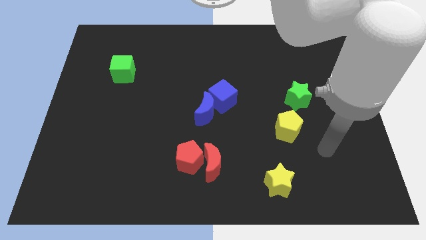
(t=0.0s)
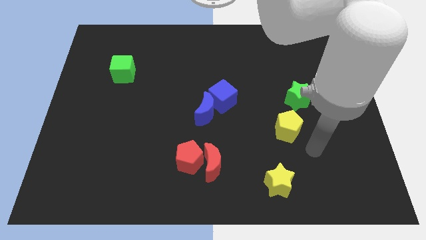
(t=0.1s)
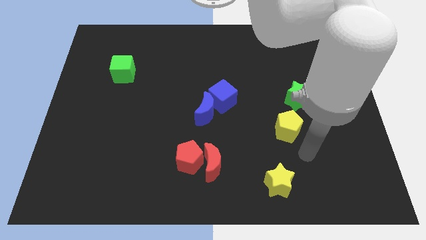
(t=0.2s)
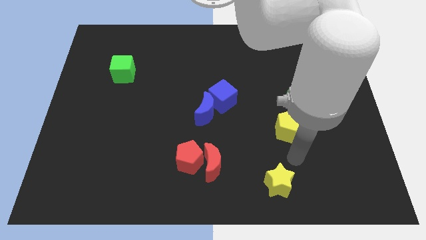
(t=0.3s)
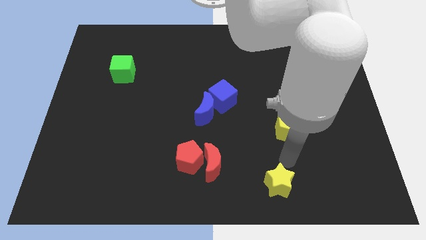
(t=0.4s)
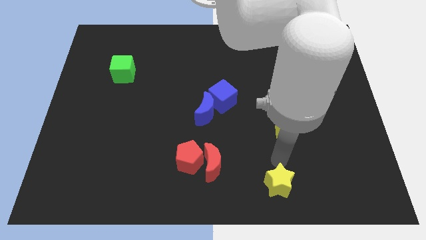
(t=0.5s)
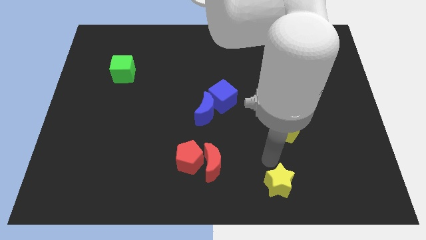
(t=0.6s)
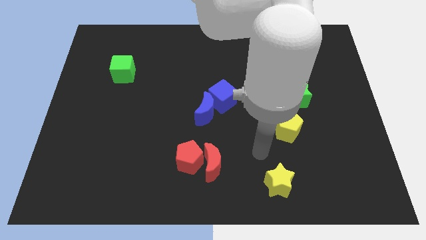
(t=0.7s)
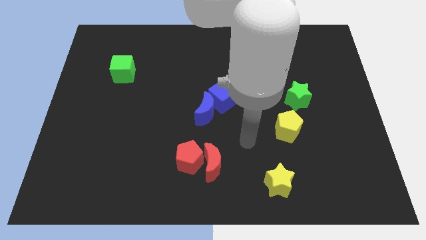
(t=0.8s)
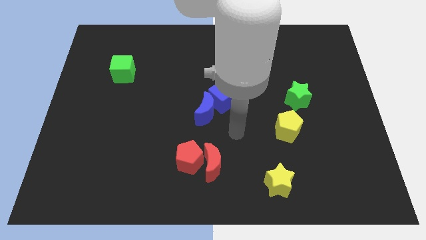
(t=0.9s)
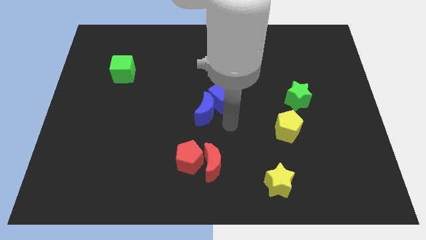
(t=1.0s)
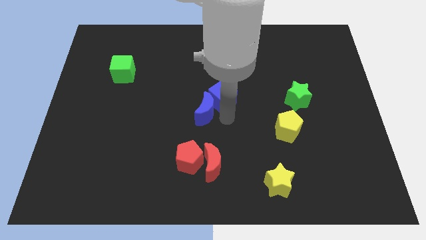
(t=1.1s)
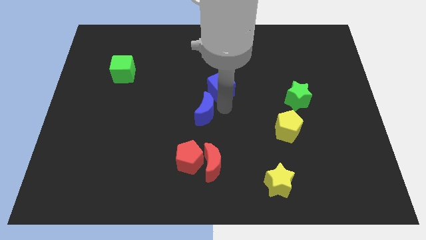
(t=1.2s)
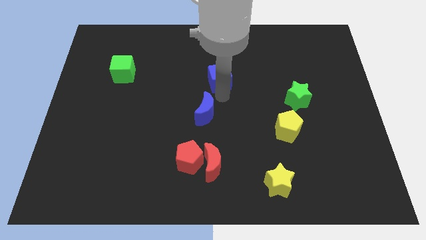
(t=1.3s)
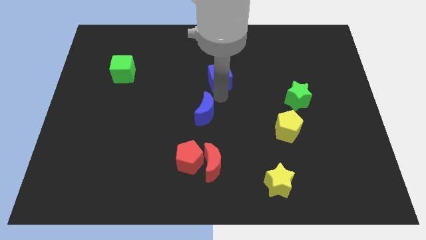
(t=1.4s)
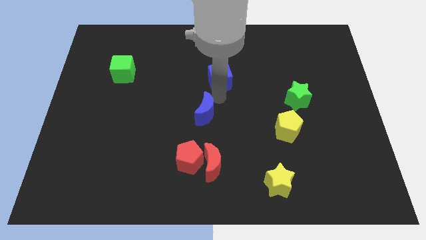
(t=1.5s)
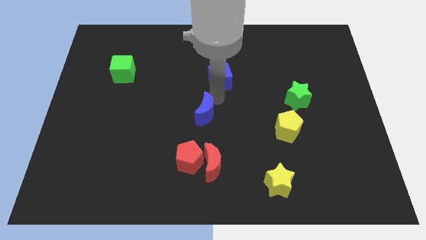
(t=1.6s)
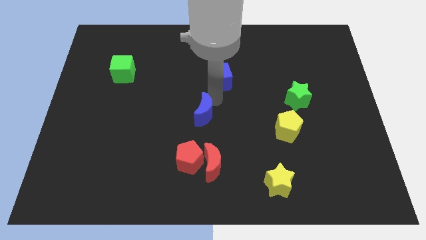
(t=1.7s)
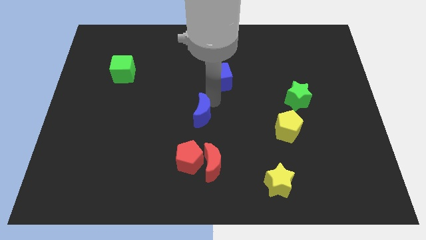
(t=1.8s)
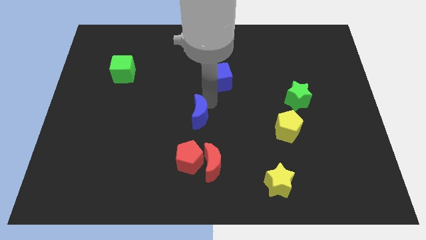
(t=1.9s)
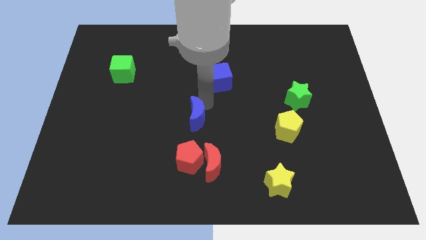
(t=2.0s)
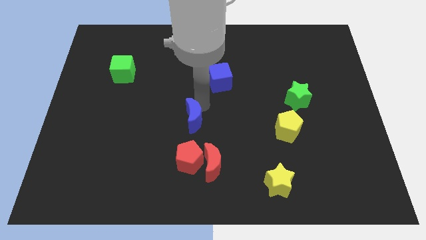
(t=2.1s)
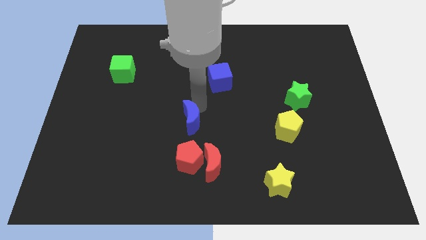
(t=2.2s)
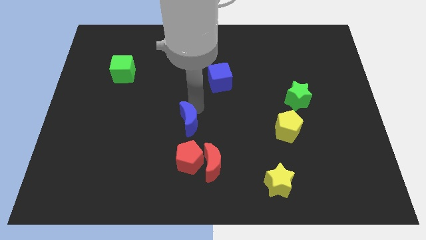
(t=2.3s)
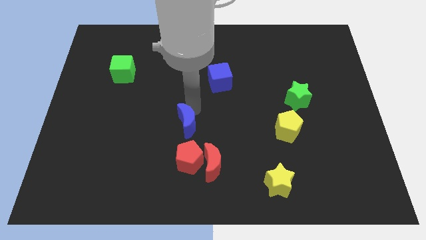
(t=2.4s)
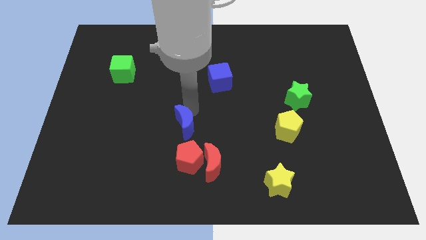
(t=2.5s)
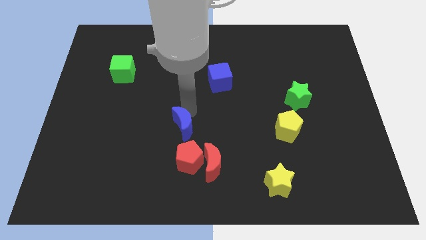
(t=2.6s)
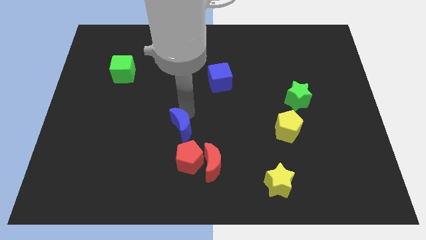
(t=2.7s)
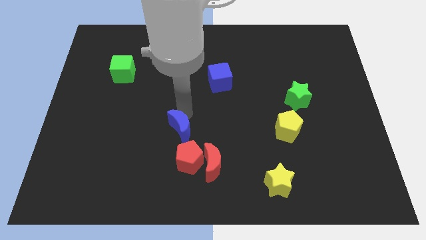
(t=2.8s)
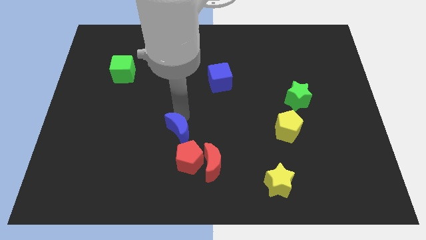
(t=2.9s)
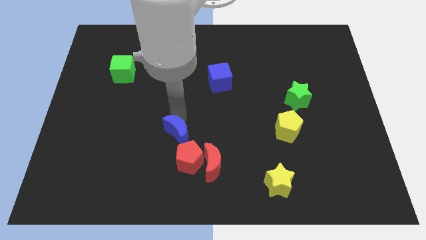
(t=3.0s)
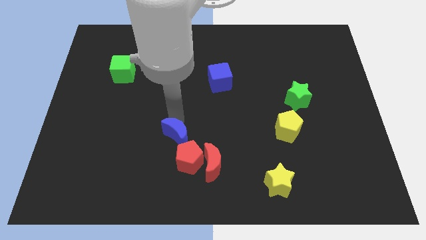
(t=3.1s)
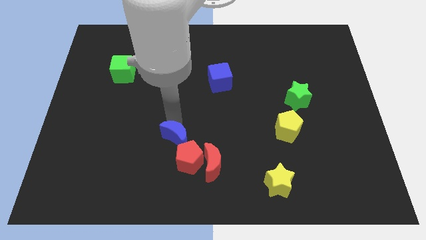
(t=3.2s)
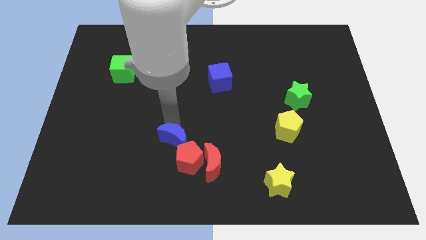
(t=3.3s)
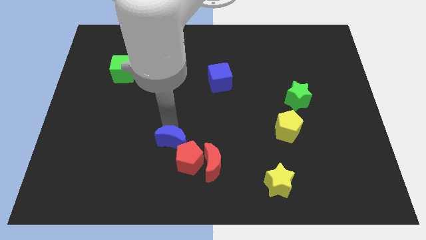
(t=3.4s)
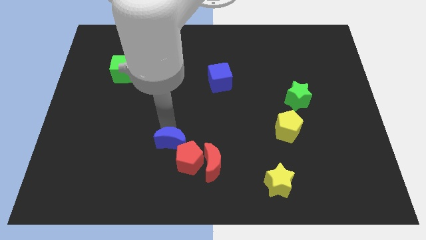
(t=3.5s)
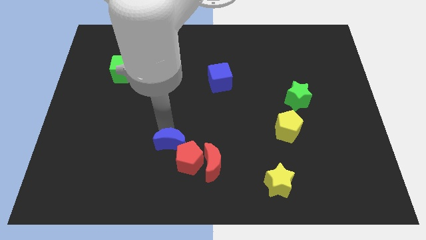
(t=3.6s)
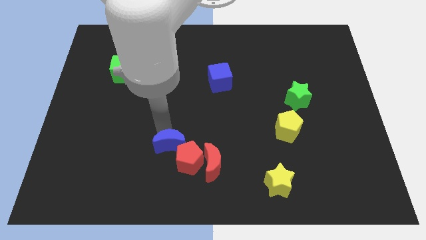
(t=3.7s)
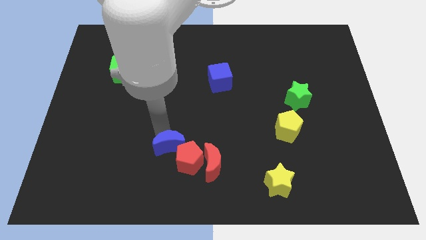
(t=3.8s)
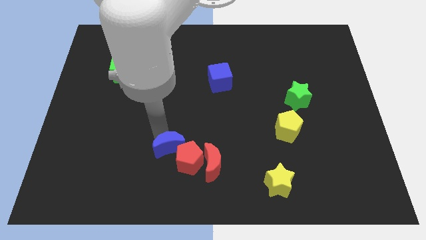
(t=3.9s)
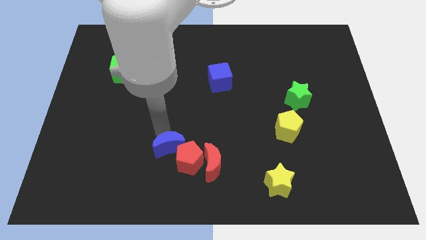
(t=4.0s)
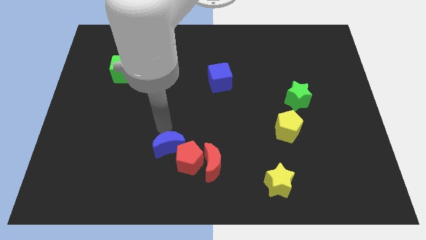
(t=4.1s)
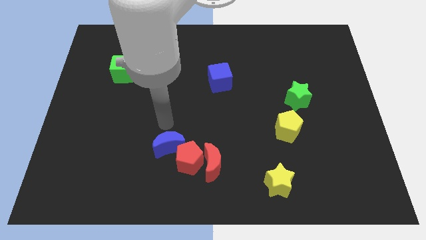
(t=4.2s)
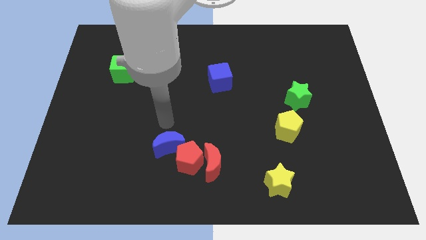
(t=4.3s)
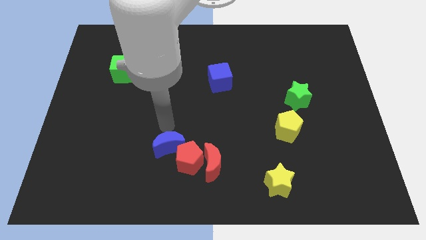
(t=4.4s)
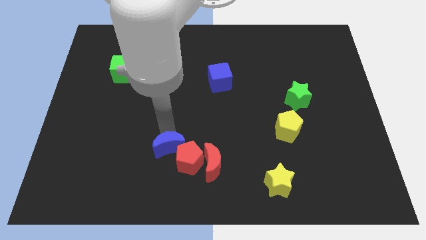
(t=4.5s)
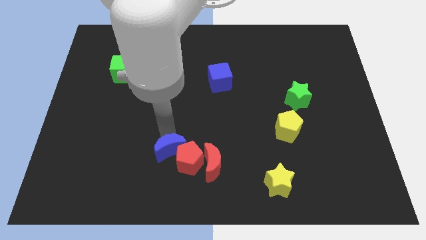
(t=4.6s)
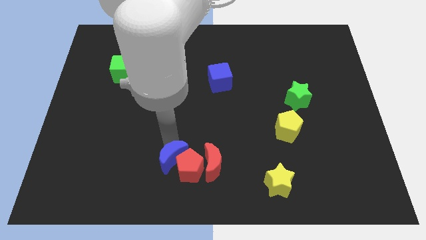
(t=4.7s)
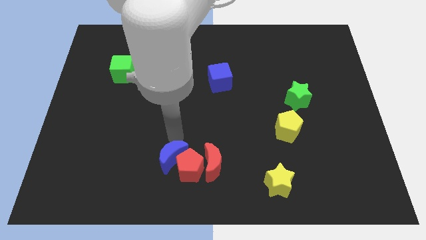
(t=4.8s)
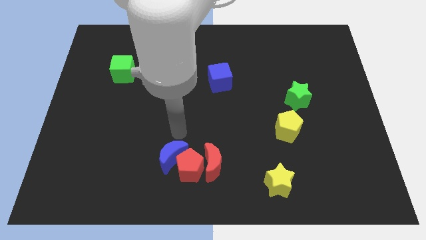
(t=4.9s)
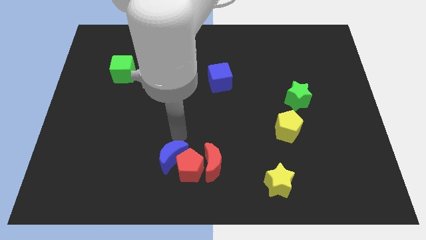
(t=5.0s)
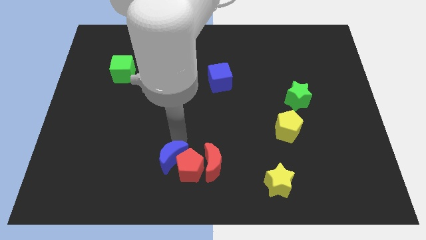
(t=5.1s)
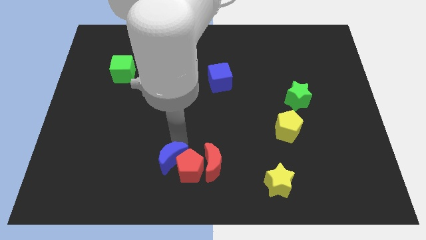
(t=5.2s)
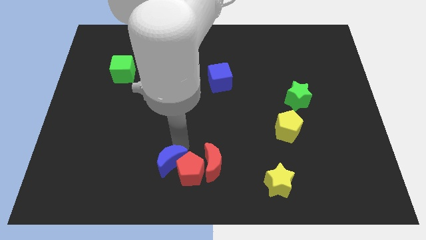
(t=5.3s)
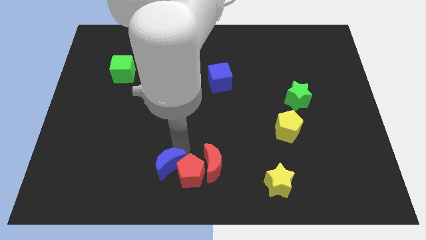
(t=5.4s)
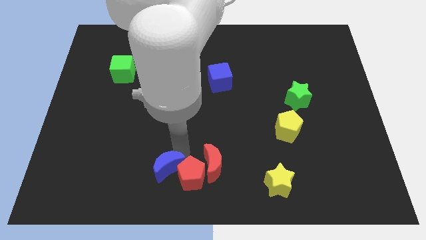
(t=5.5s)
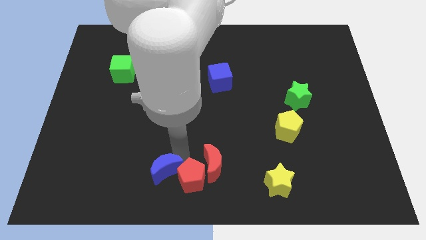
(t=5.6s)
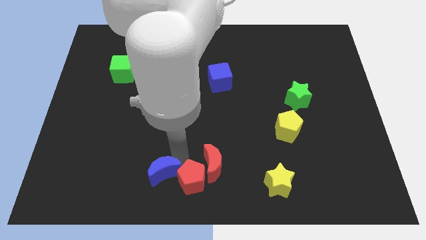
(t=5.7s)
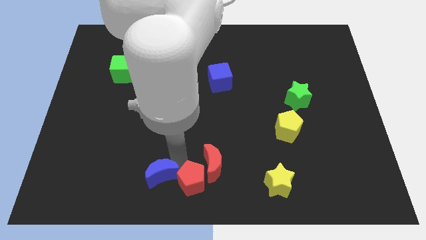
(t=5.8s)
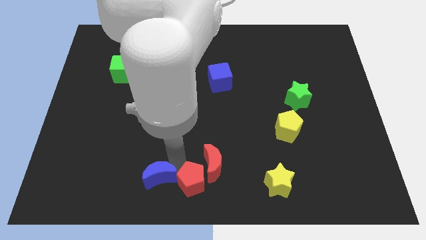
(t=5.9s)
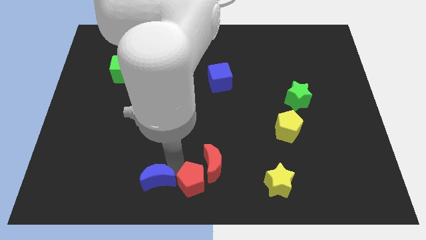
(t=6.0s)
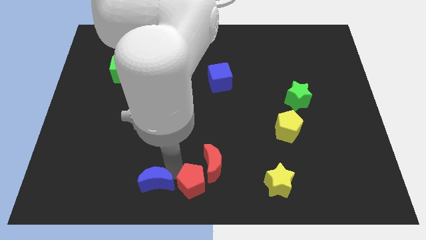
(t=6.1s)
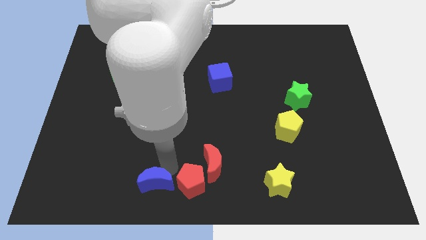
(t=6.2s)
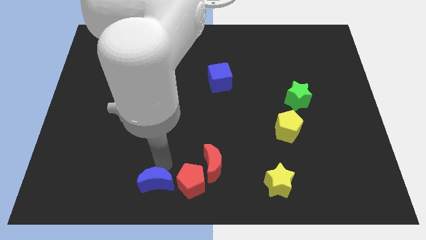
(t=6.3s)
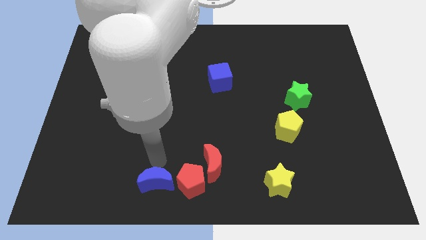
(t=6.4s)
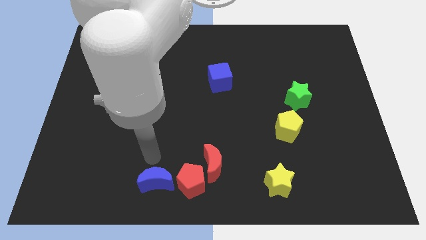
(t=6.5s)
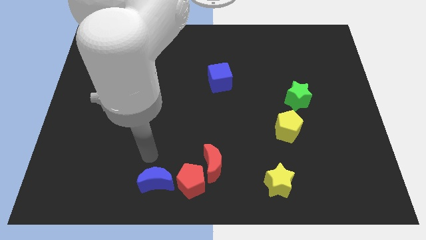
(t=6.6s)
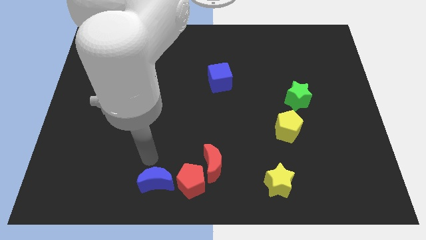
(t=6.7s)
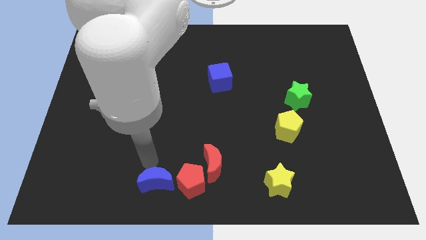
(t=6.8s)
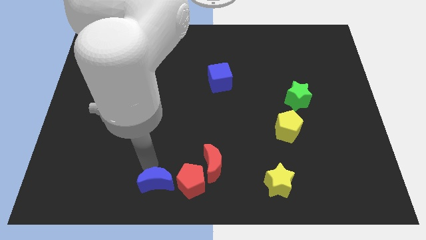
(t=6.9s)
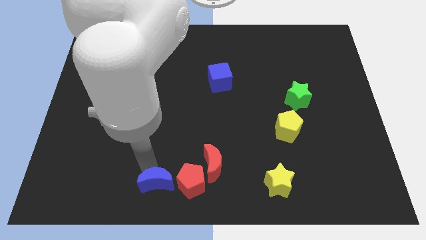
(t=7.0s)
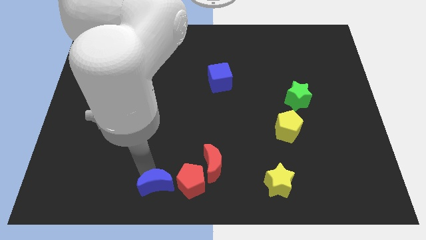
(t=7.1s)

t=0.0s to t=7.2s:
move the blue moon diagonally down and to the left of the red pentagon

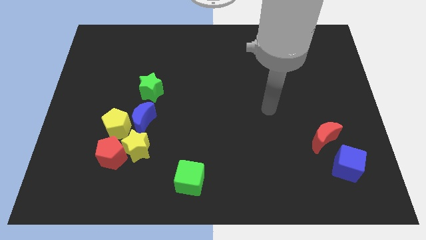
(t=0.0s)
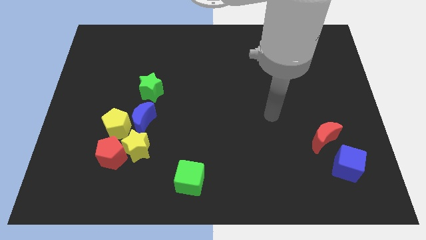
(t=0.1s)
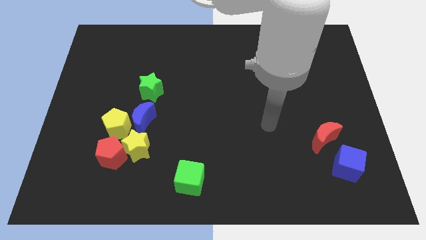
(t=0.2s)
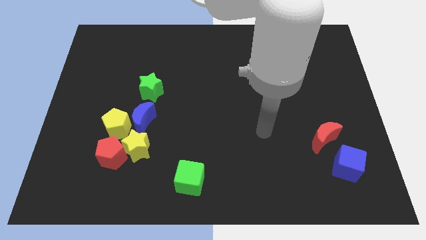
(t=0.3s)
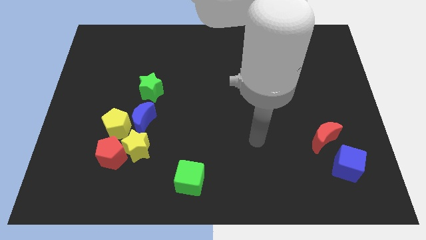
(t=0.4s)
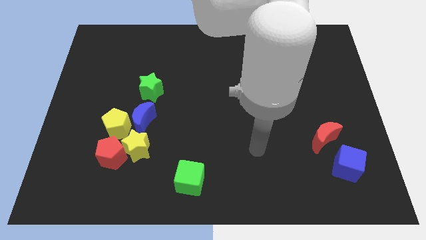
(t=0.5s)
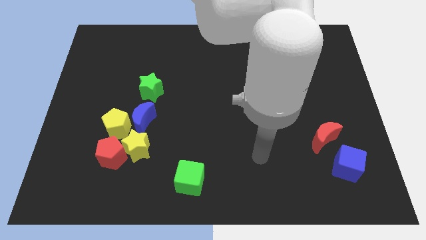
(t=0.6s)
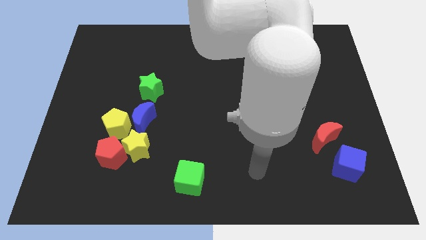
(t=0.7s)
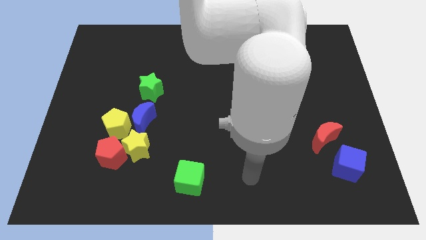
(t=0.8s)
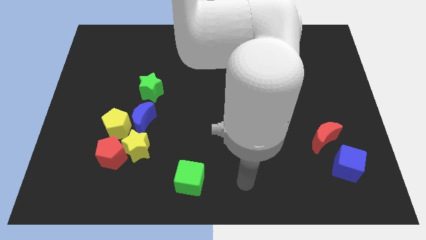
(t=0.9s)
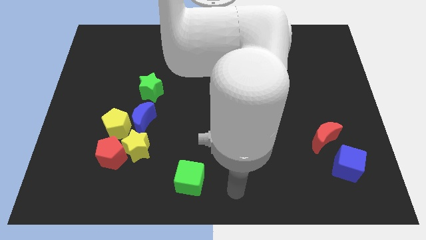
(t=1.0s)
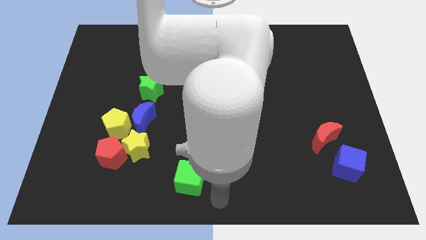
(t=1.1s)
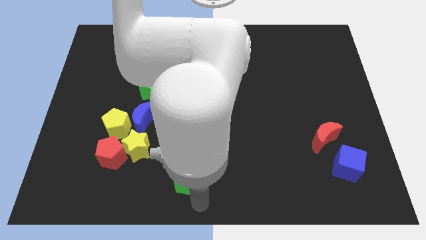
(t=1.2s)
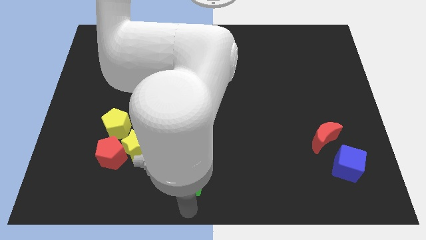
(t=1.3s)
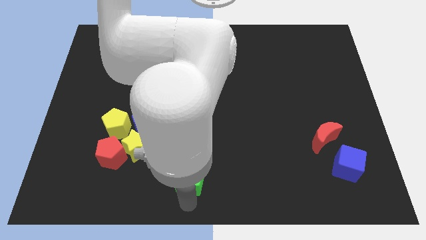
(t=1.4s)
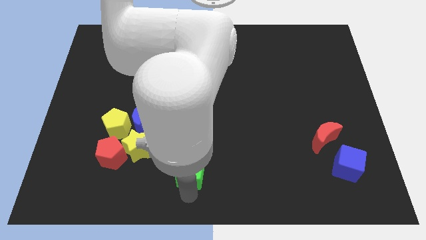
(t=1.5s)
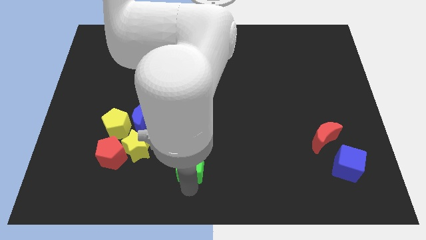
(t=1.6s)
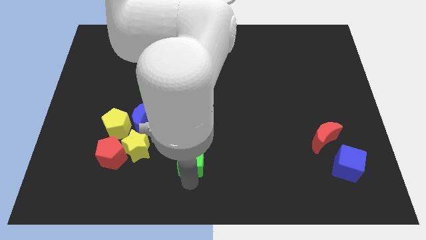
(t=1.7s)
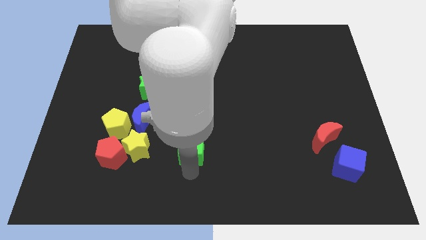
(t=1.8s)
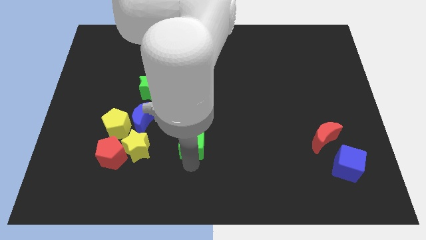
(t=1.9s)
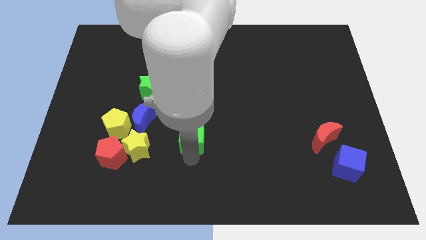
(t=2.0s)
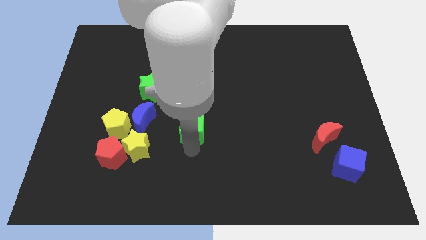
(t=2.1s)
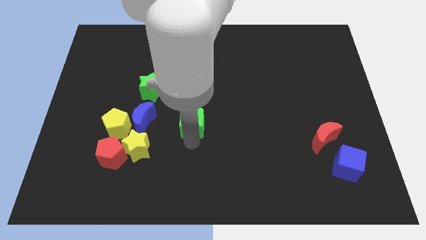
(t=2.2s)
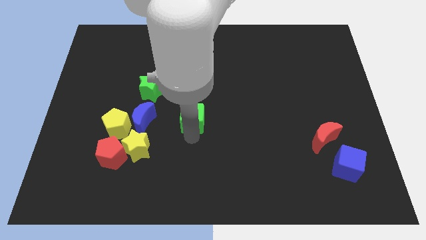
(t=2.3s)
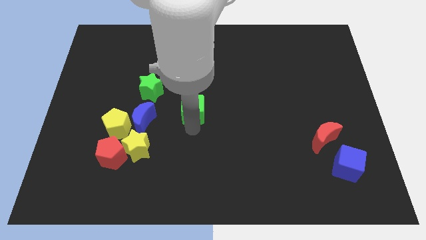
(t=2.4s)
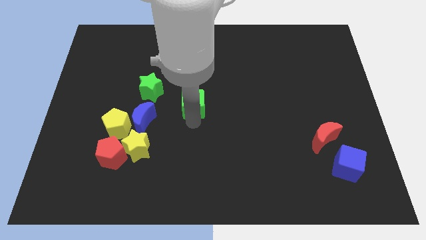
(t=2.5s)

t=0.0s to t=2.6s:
push the green cube right of the green star
